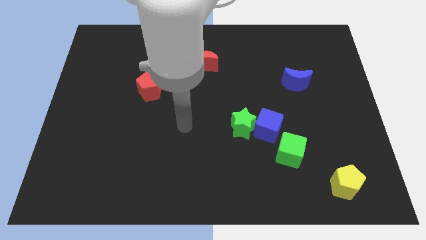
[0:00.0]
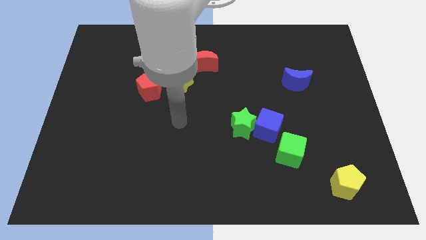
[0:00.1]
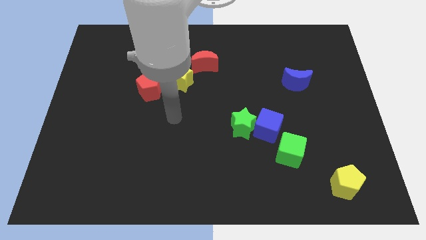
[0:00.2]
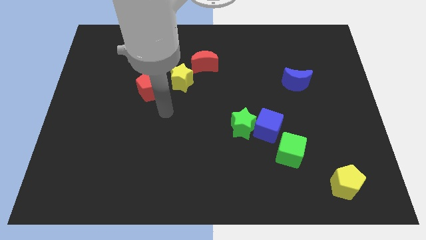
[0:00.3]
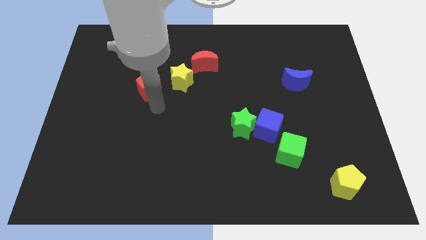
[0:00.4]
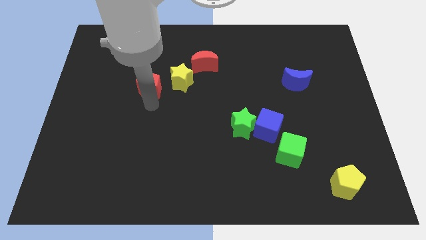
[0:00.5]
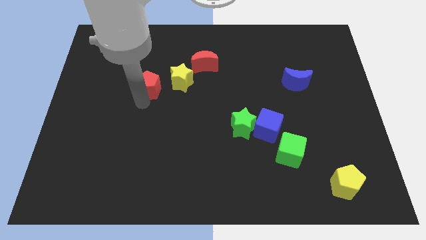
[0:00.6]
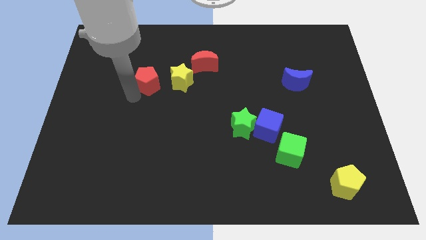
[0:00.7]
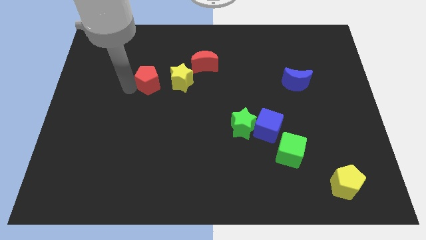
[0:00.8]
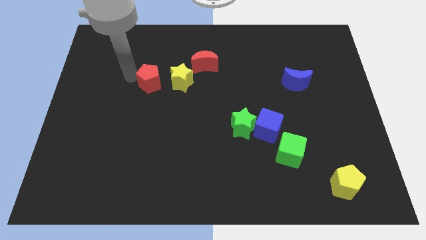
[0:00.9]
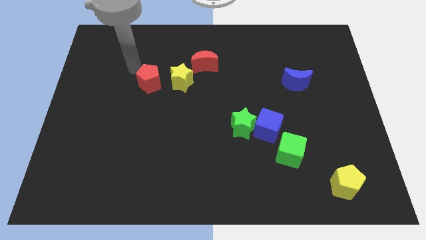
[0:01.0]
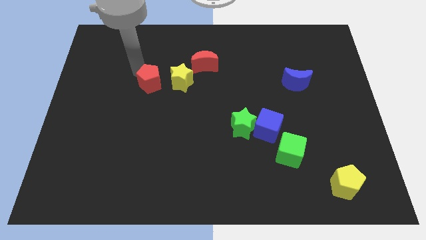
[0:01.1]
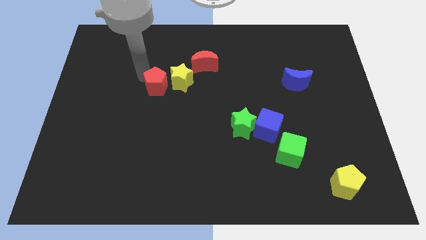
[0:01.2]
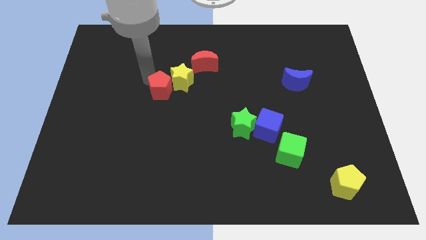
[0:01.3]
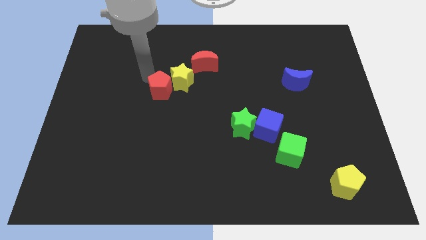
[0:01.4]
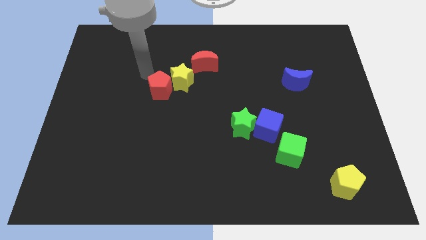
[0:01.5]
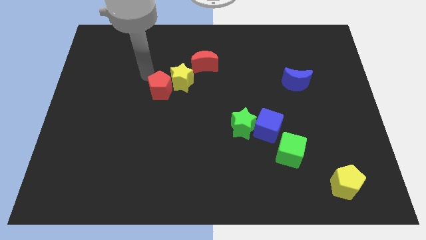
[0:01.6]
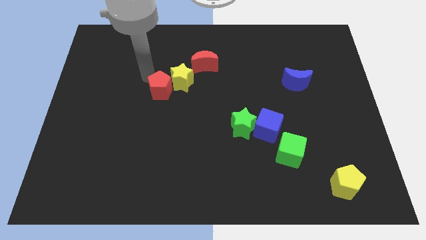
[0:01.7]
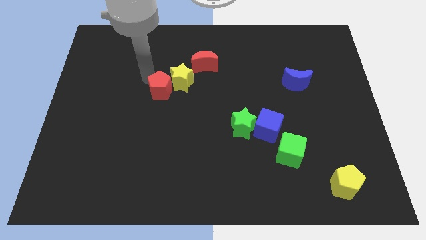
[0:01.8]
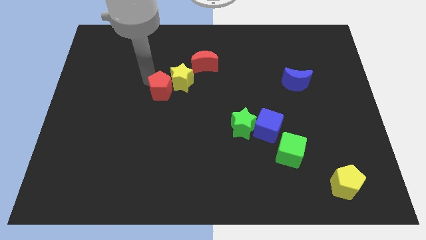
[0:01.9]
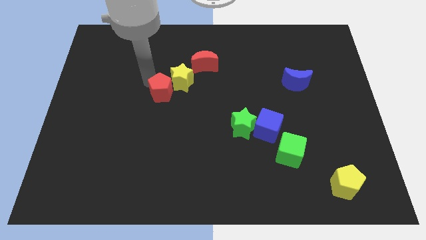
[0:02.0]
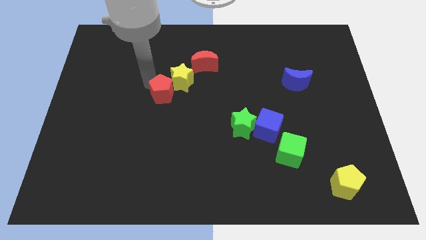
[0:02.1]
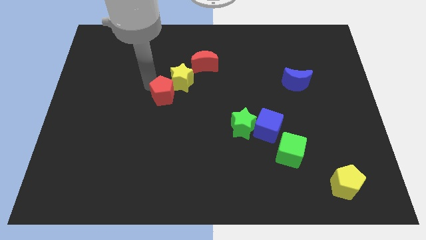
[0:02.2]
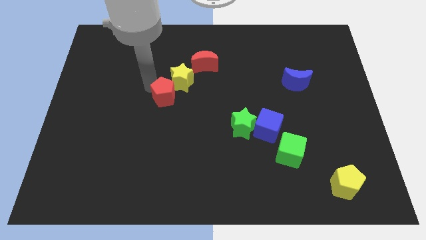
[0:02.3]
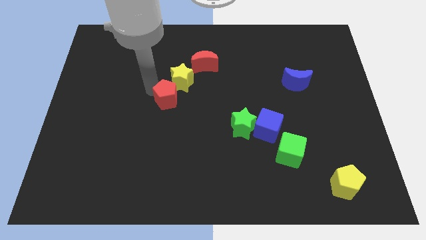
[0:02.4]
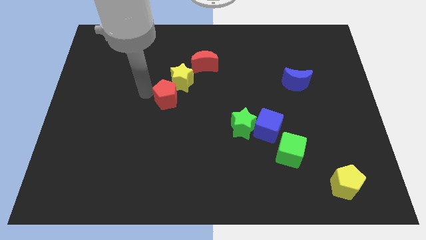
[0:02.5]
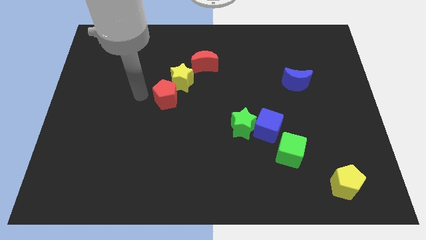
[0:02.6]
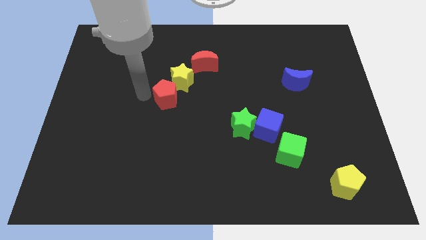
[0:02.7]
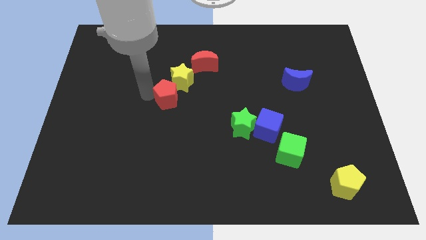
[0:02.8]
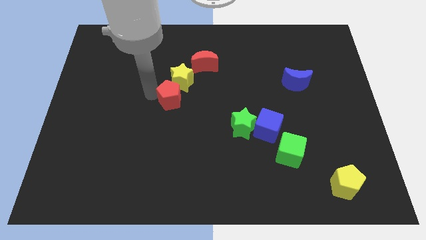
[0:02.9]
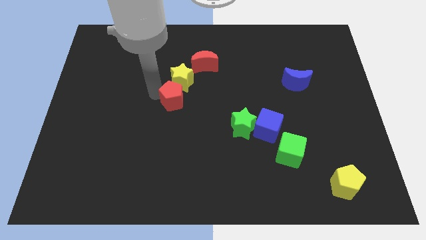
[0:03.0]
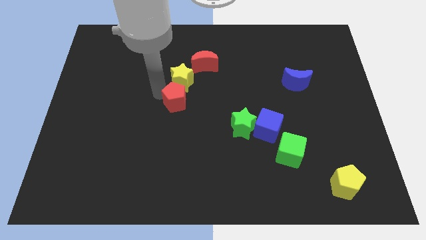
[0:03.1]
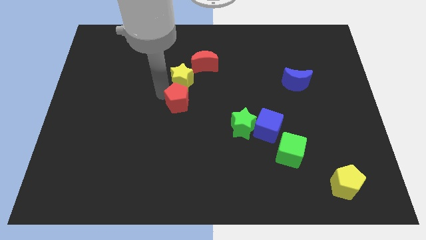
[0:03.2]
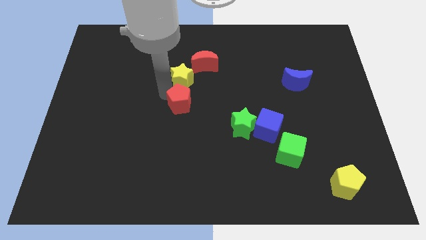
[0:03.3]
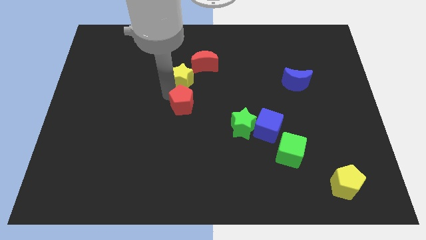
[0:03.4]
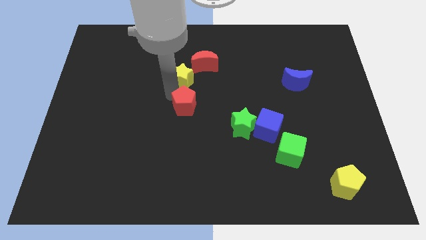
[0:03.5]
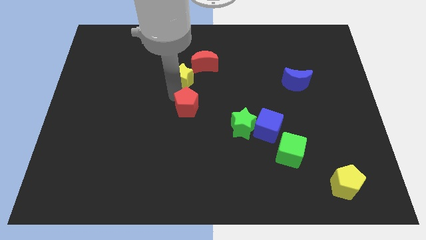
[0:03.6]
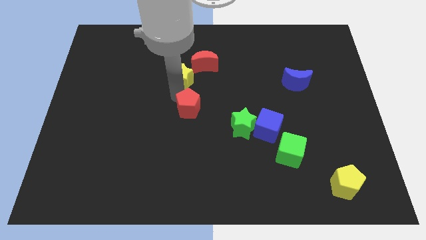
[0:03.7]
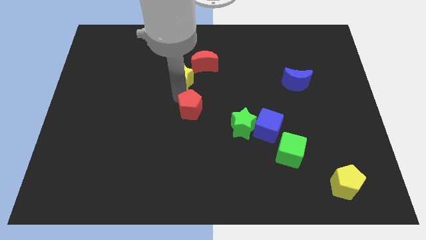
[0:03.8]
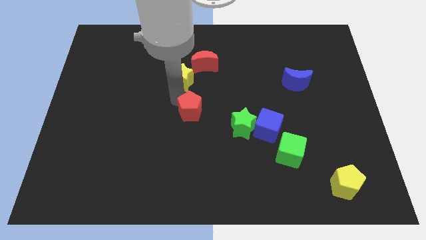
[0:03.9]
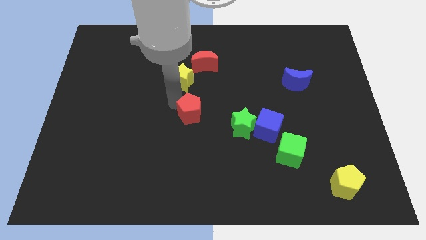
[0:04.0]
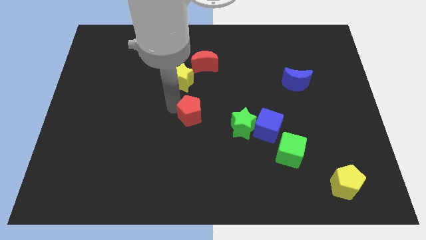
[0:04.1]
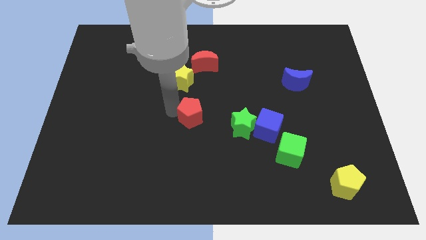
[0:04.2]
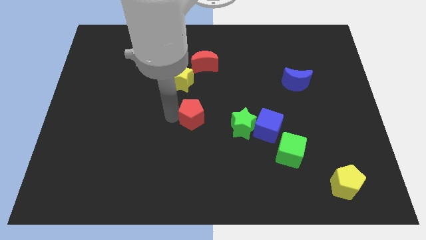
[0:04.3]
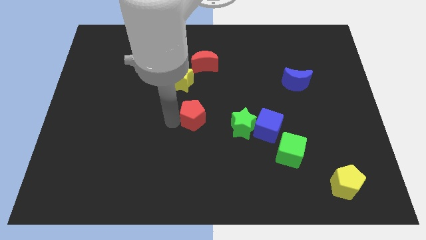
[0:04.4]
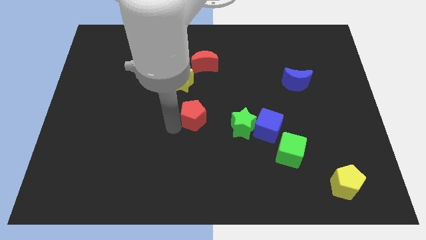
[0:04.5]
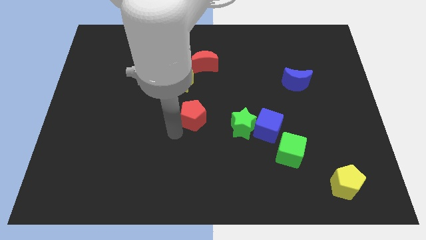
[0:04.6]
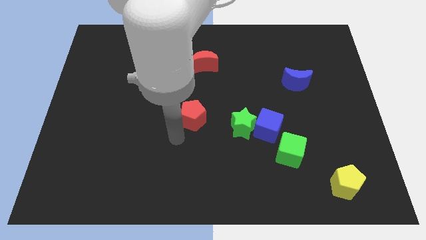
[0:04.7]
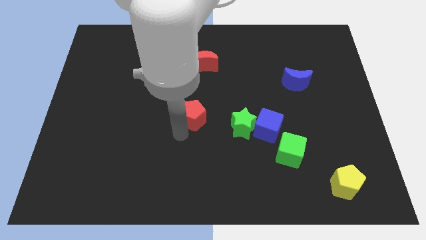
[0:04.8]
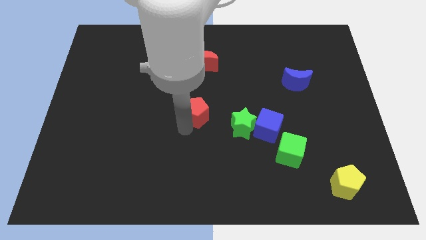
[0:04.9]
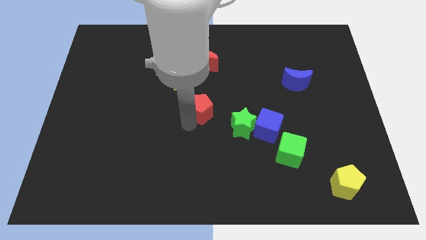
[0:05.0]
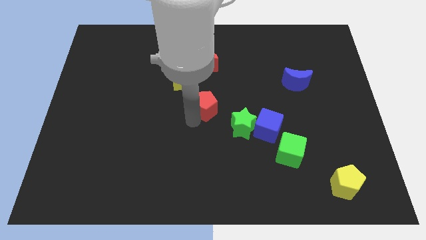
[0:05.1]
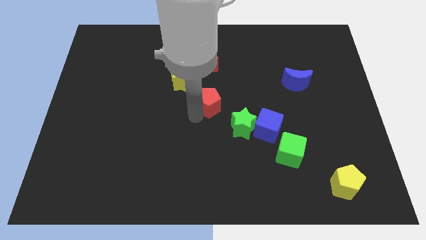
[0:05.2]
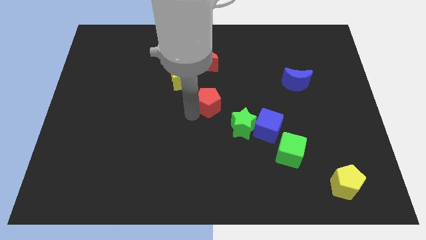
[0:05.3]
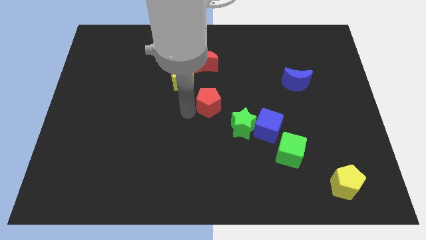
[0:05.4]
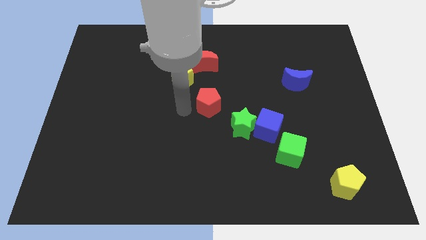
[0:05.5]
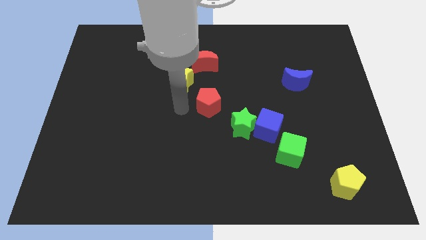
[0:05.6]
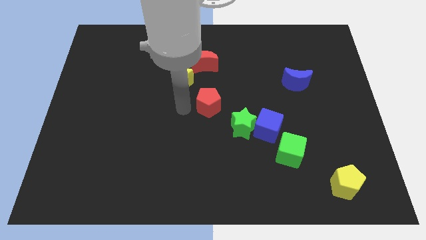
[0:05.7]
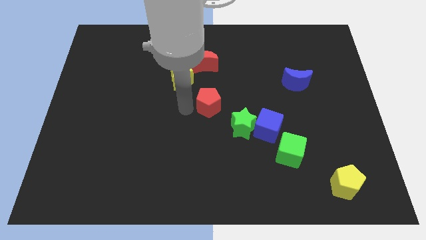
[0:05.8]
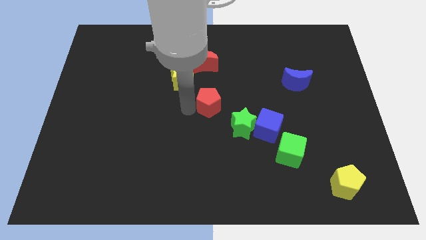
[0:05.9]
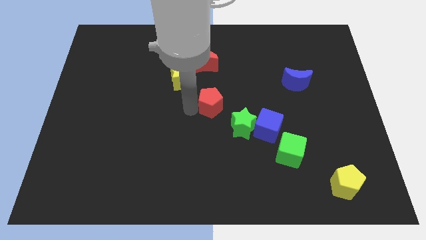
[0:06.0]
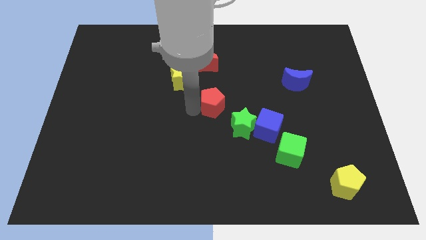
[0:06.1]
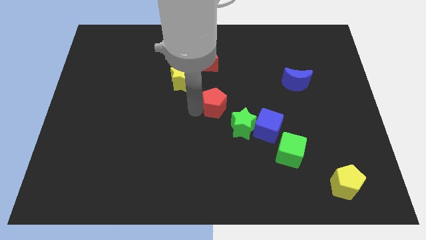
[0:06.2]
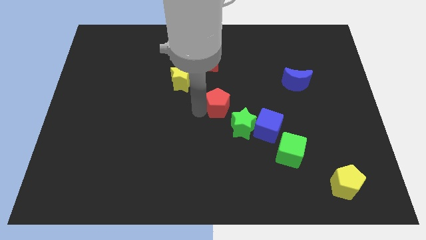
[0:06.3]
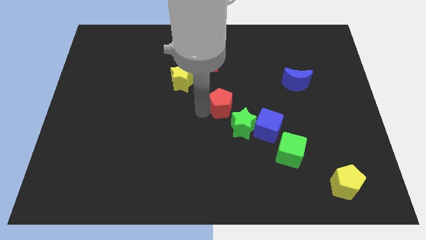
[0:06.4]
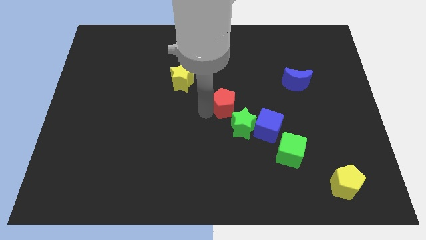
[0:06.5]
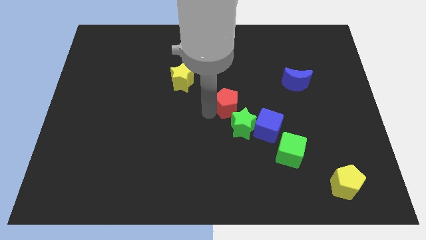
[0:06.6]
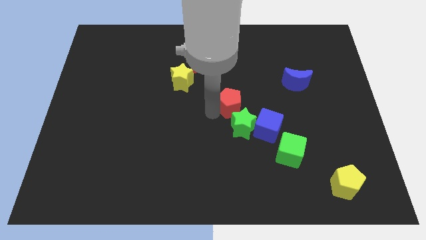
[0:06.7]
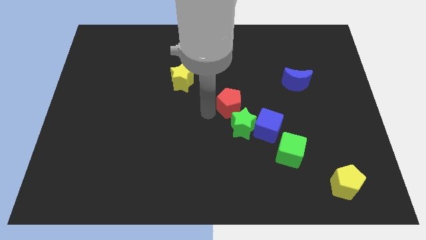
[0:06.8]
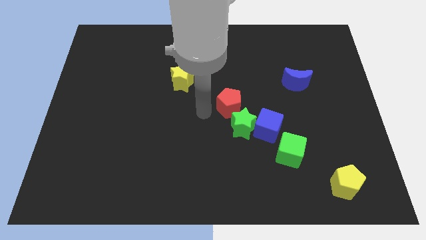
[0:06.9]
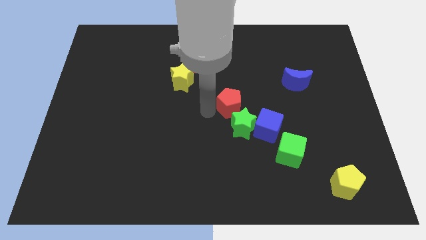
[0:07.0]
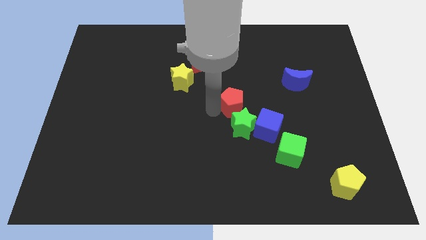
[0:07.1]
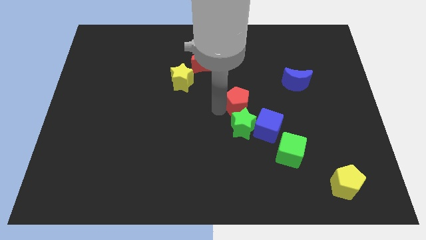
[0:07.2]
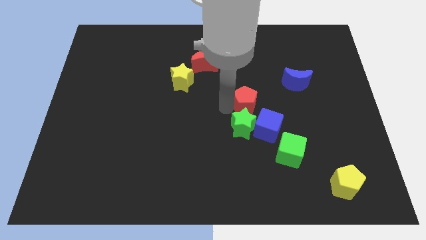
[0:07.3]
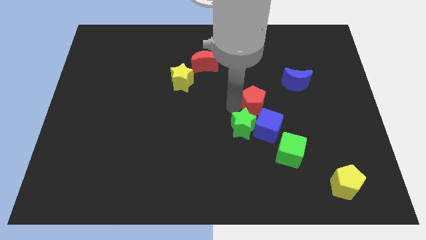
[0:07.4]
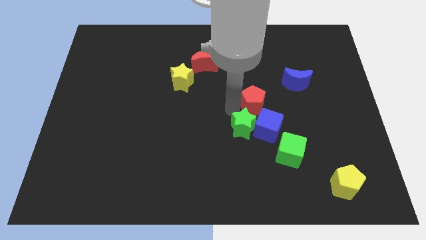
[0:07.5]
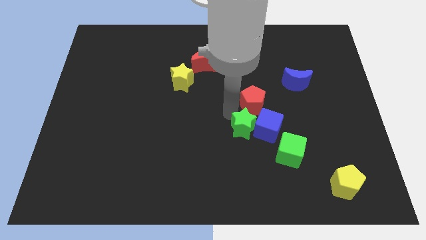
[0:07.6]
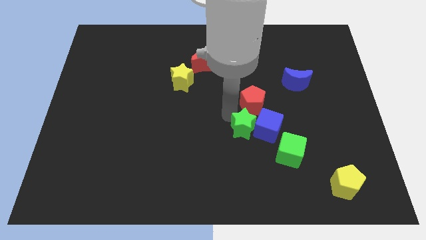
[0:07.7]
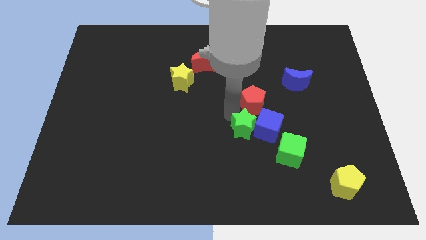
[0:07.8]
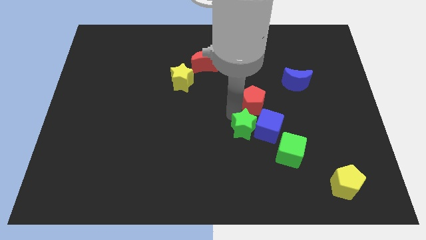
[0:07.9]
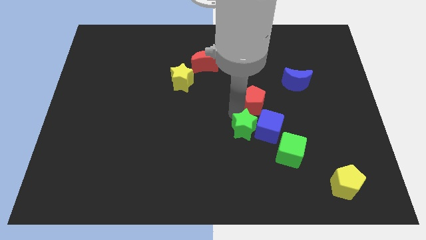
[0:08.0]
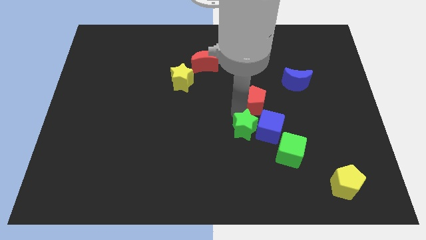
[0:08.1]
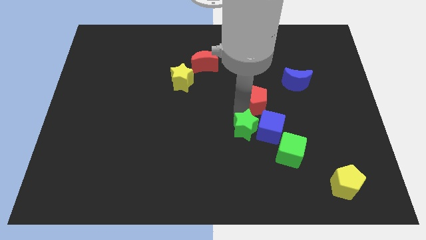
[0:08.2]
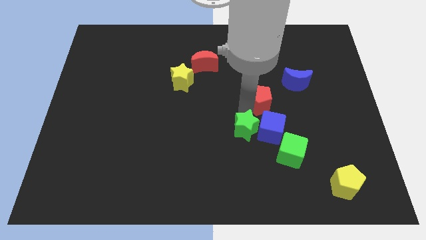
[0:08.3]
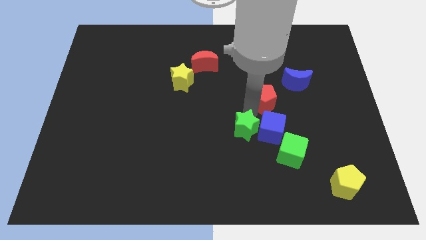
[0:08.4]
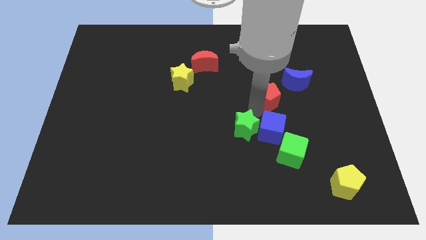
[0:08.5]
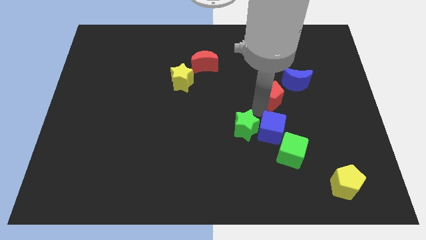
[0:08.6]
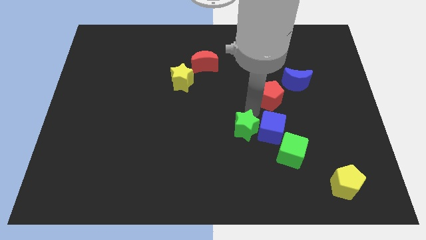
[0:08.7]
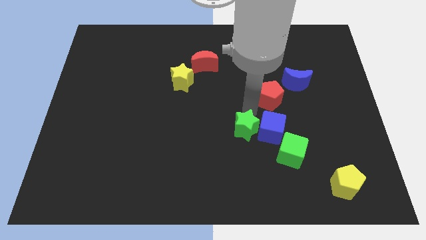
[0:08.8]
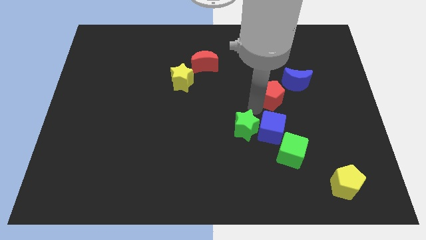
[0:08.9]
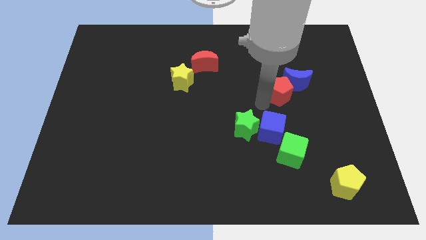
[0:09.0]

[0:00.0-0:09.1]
put the red pentagon towards the blue moon
